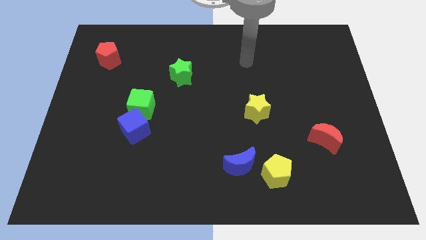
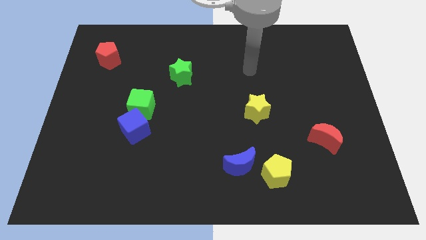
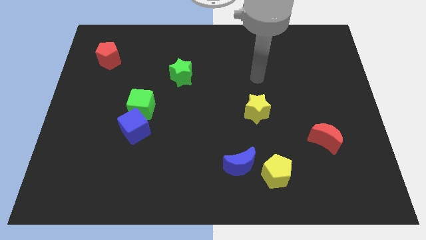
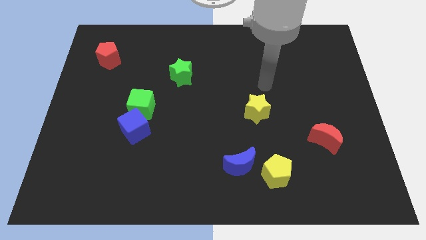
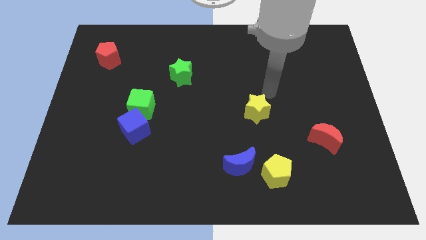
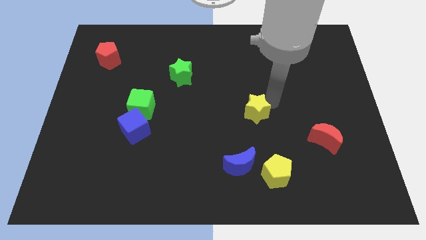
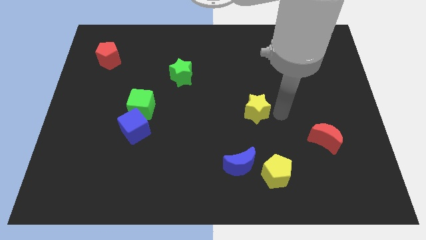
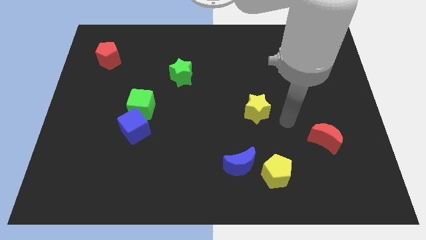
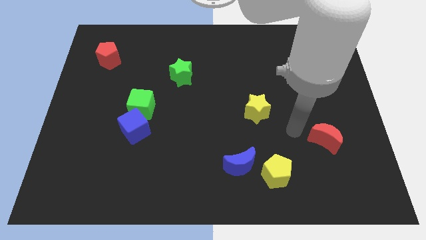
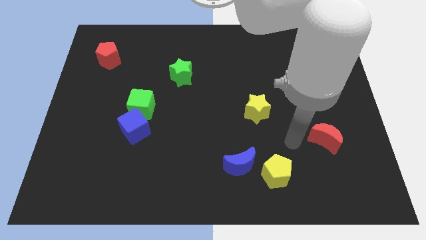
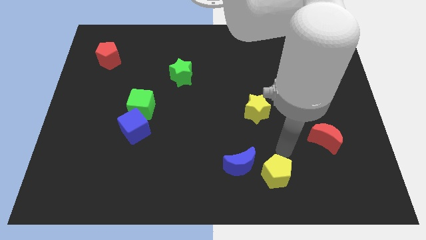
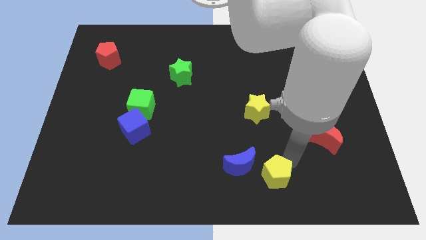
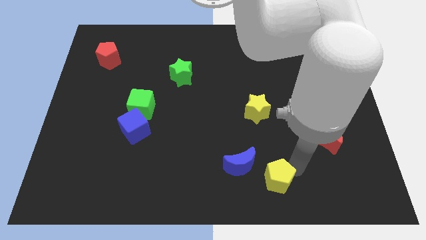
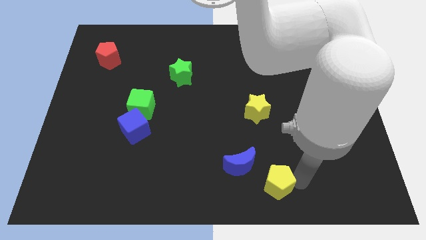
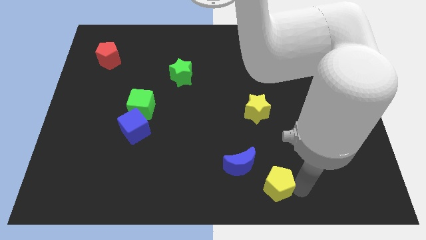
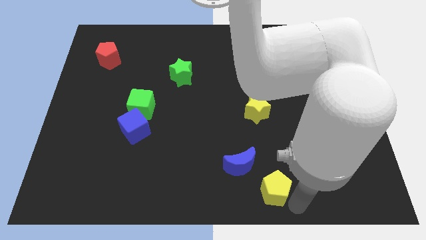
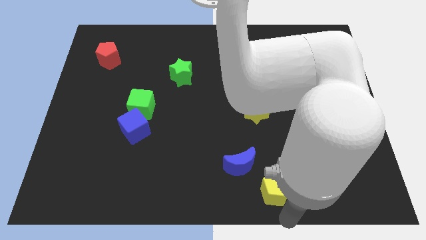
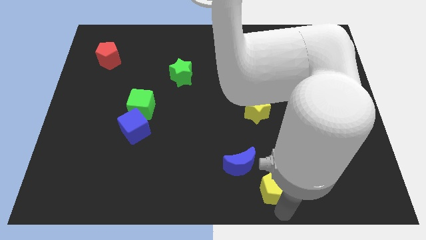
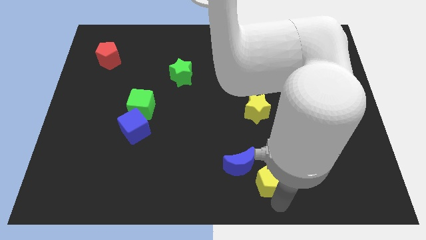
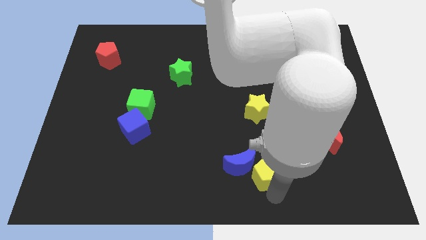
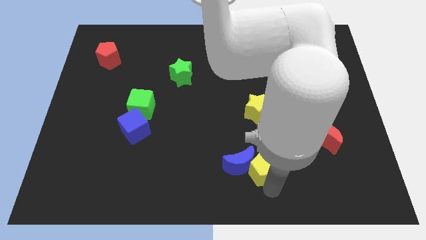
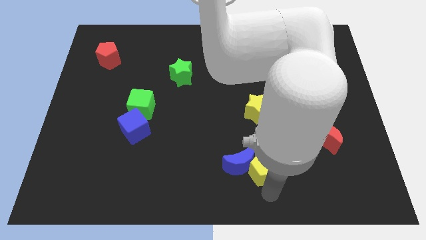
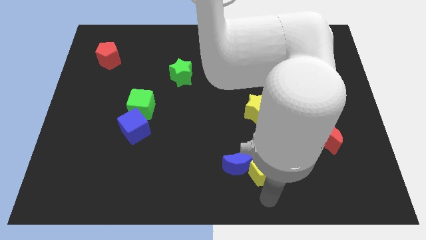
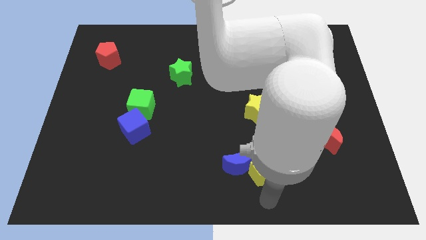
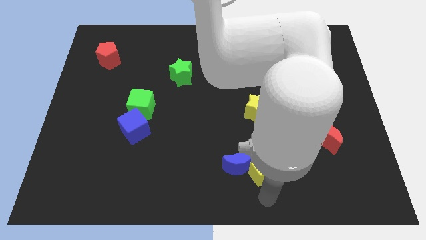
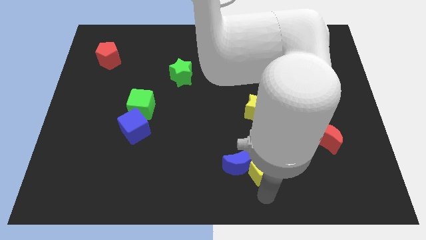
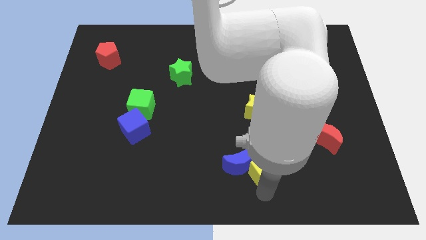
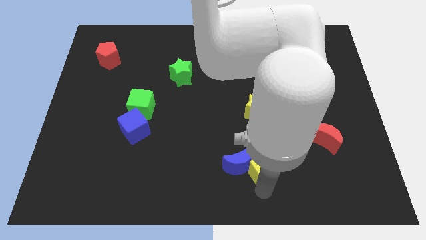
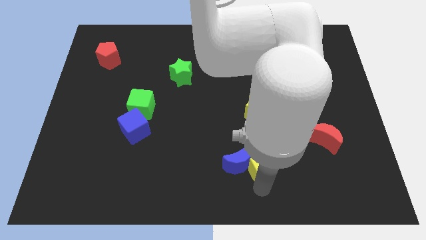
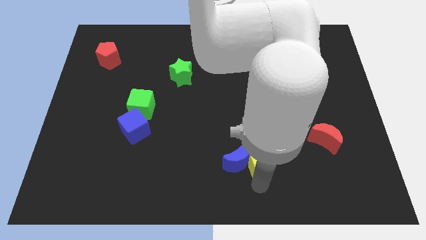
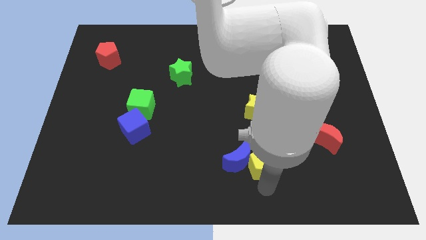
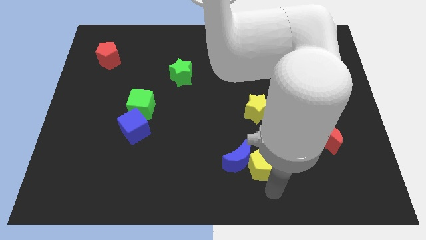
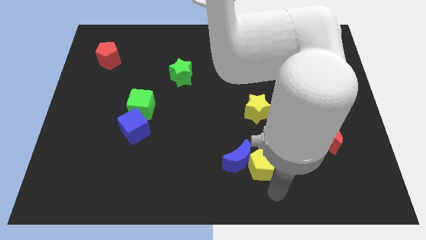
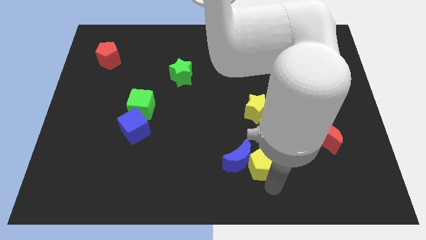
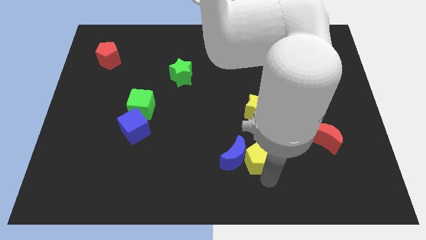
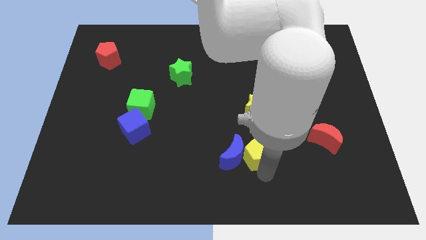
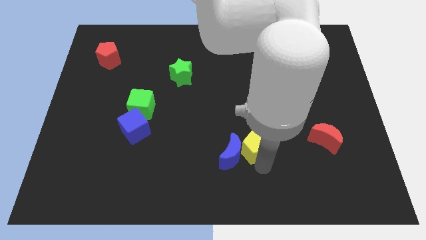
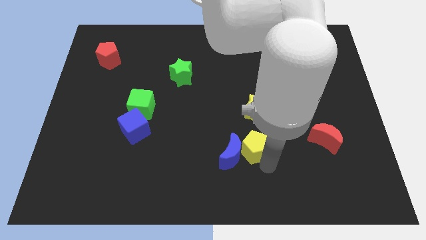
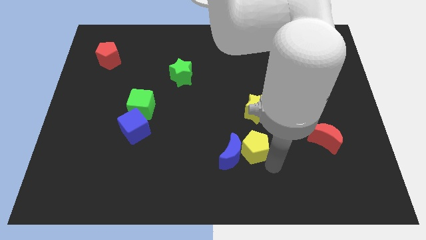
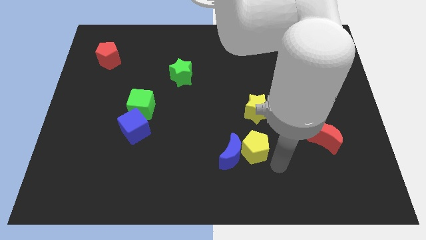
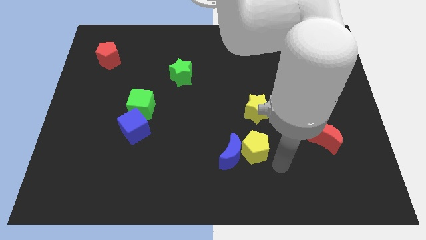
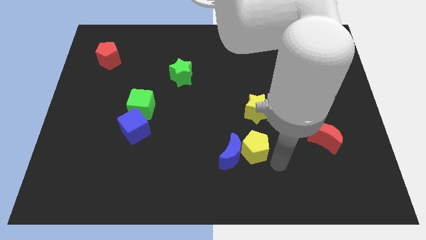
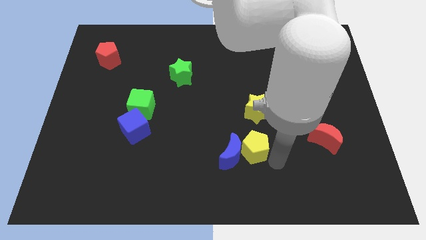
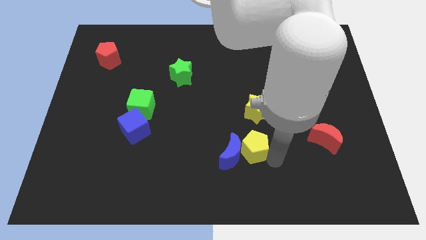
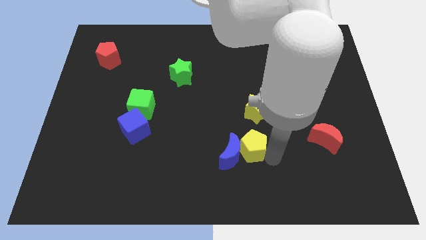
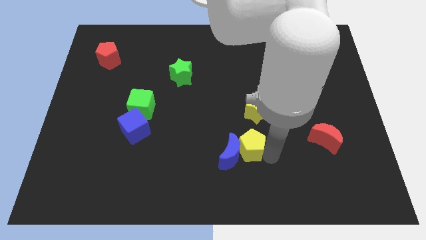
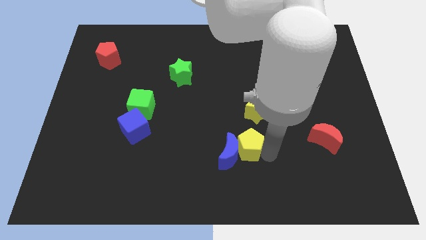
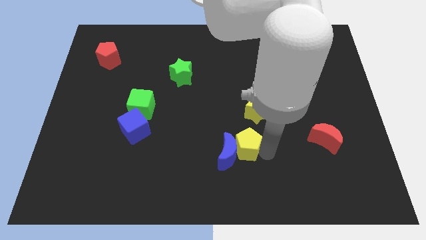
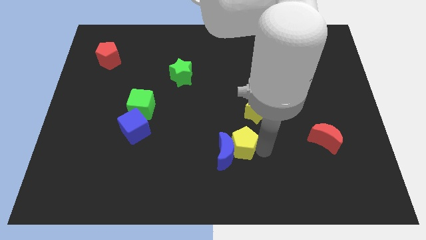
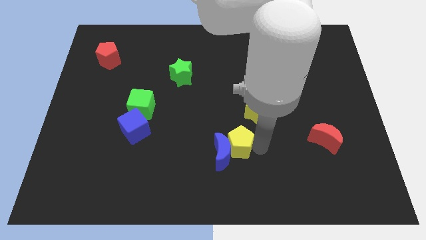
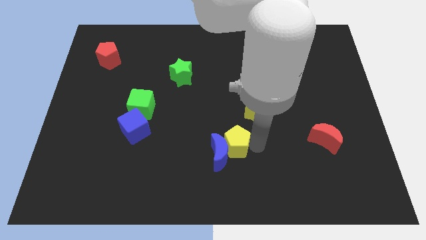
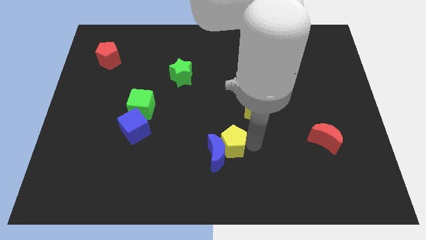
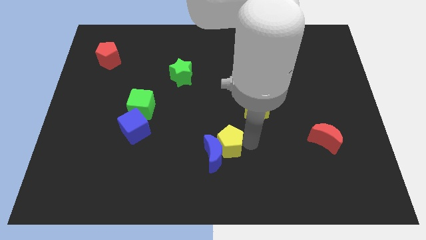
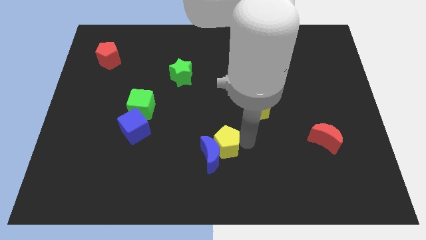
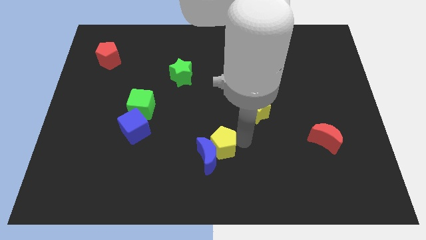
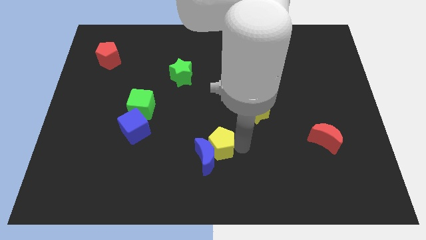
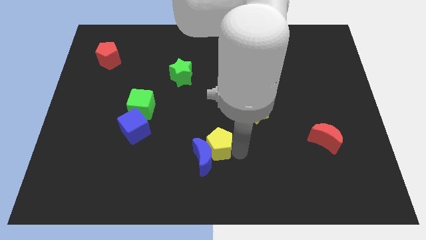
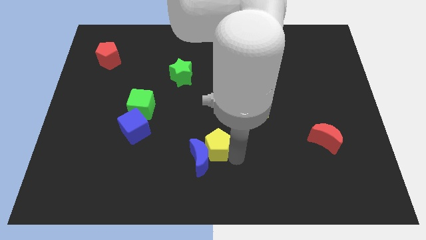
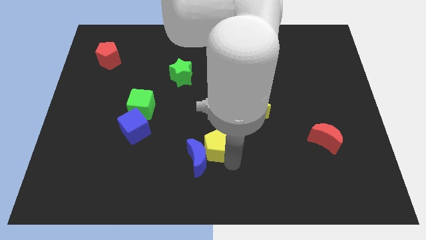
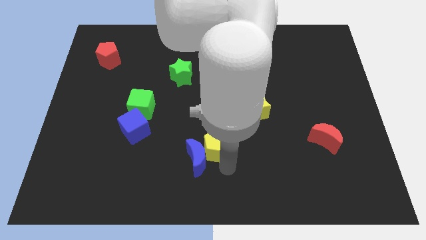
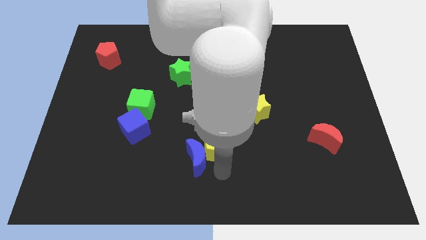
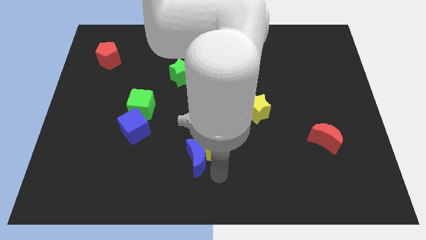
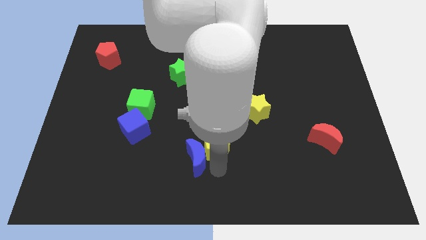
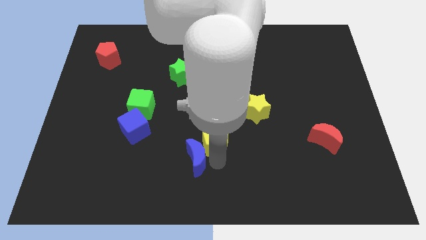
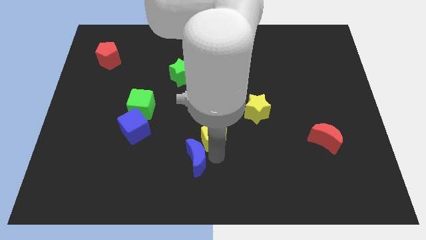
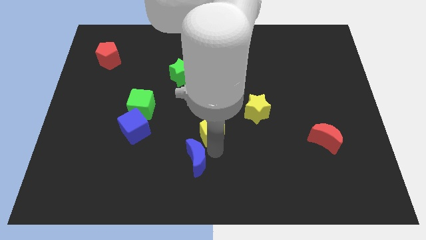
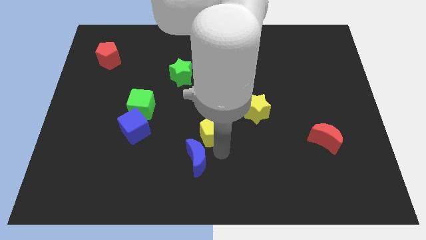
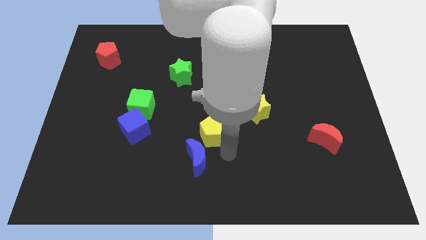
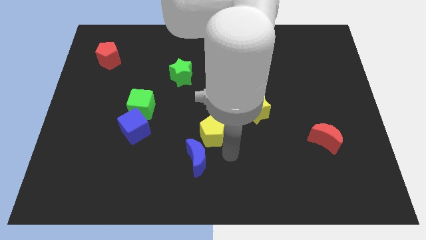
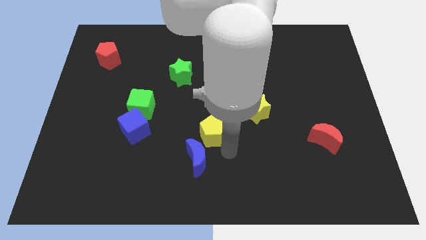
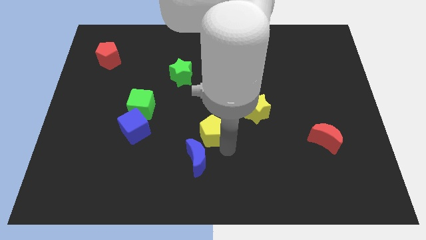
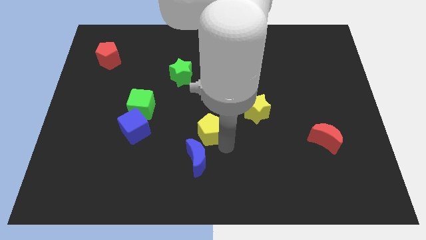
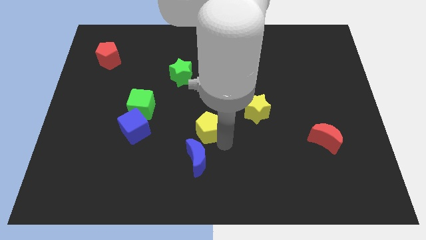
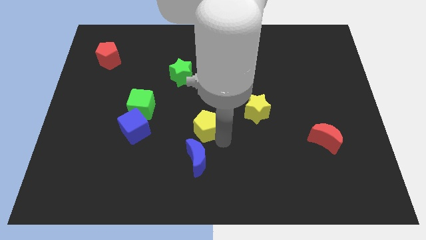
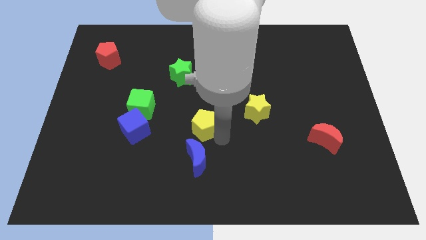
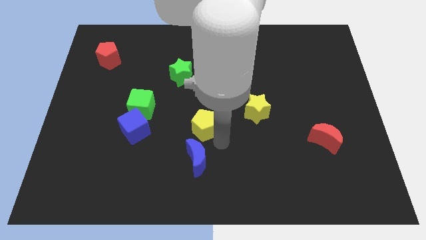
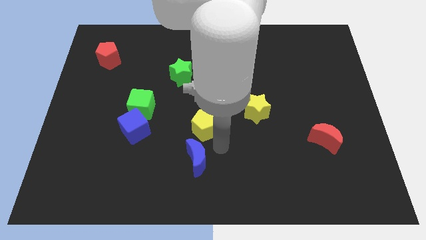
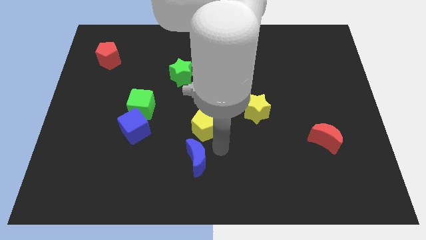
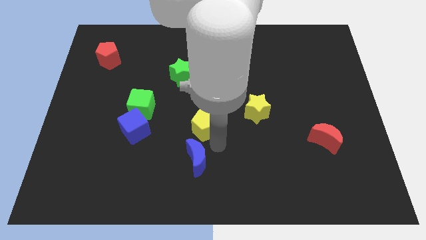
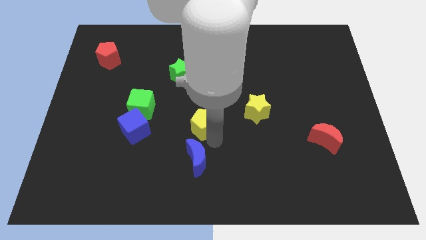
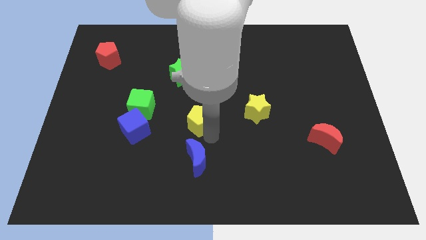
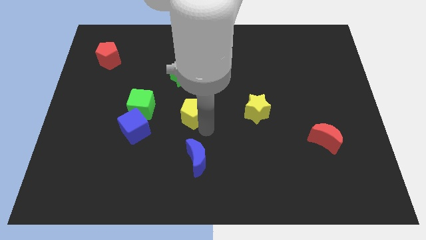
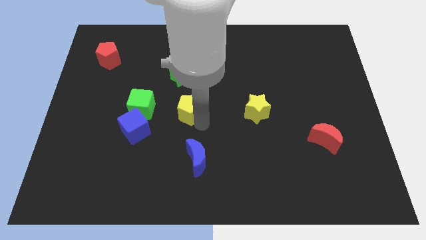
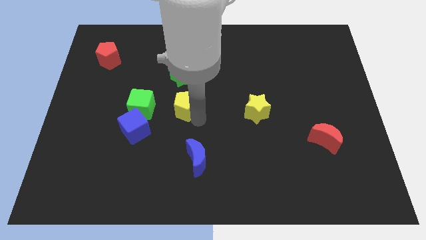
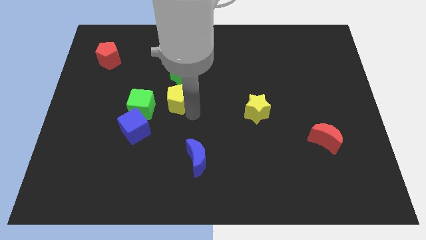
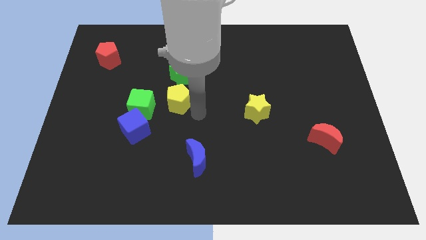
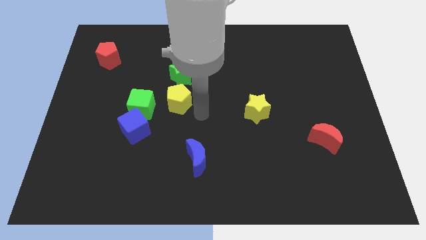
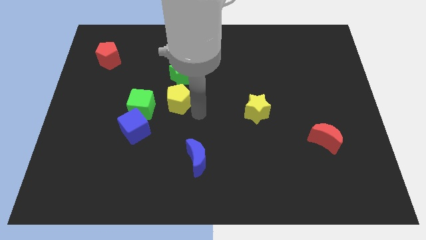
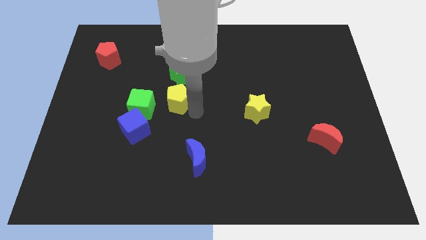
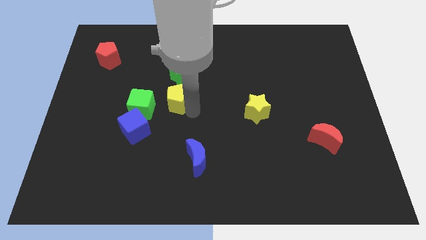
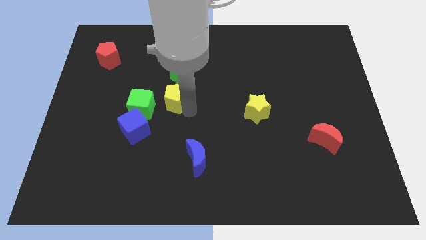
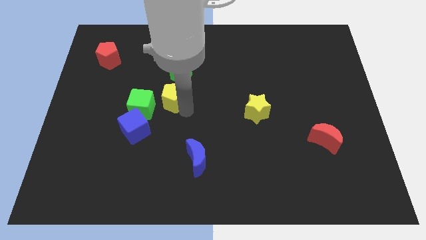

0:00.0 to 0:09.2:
put the yellow pentagon to the bottom left side of the green star
